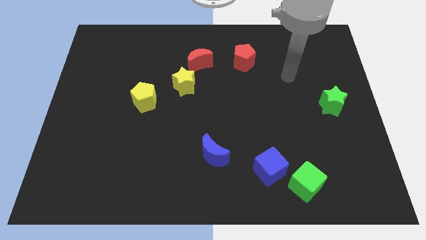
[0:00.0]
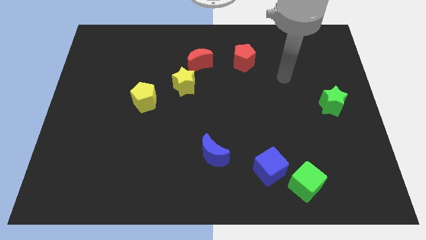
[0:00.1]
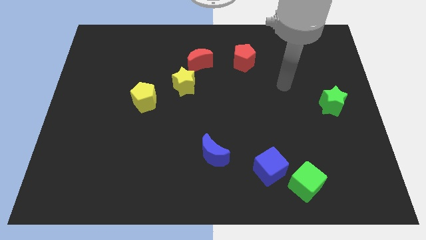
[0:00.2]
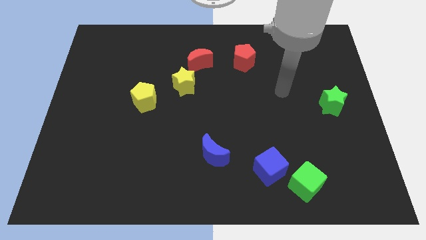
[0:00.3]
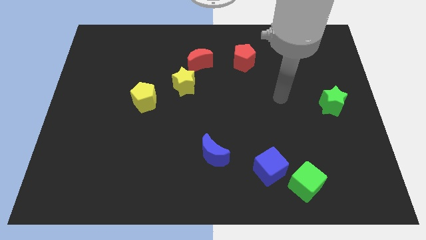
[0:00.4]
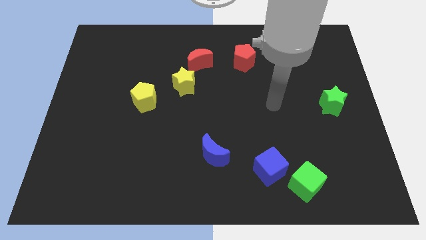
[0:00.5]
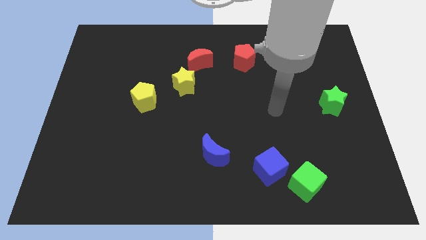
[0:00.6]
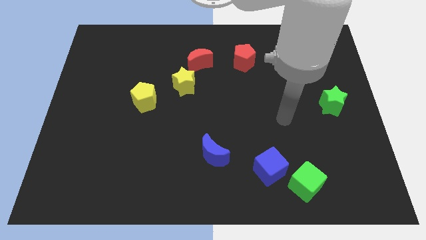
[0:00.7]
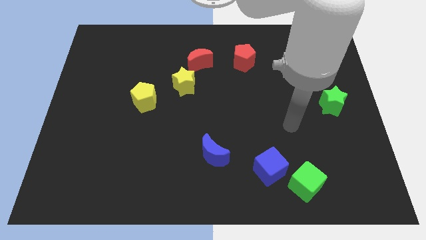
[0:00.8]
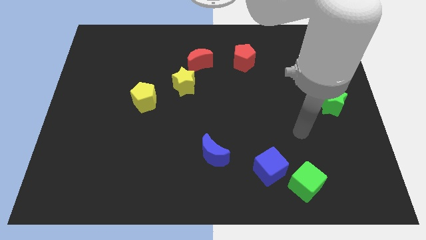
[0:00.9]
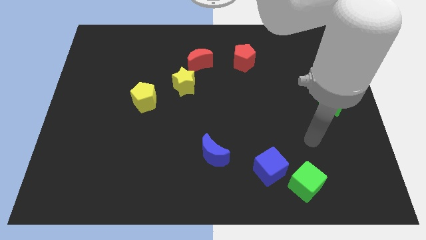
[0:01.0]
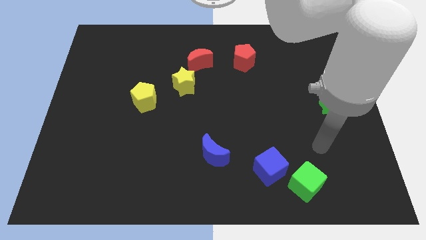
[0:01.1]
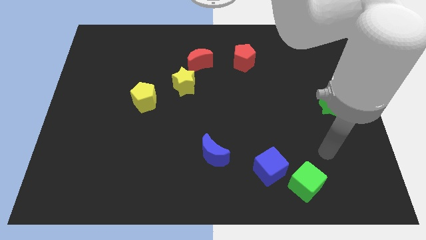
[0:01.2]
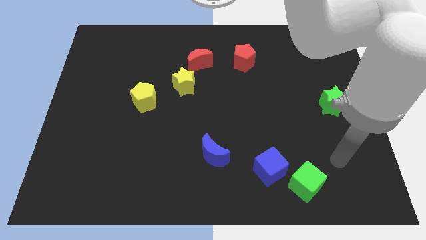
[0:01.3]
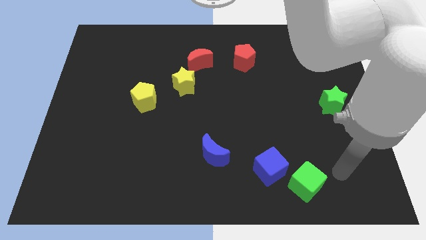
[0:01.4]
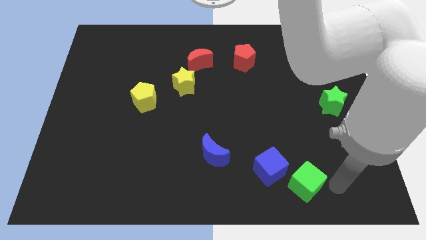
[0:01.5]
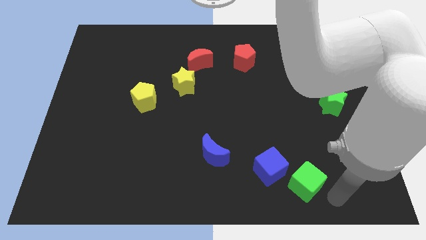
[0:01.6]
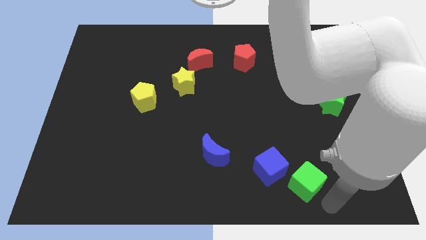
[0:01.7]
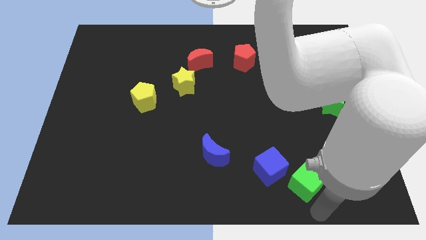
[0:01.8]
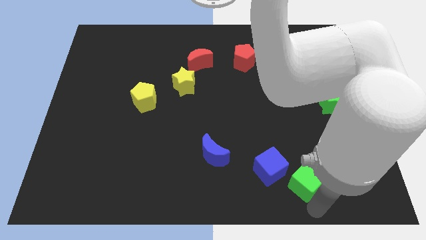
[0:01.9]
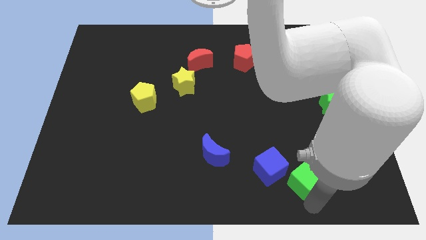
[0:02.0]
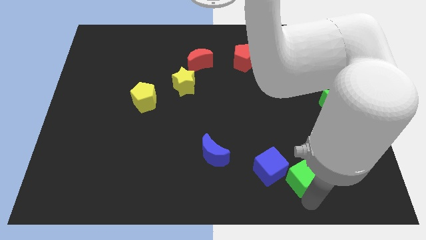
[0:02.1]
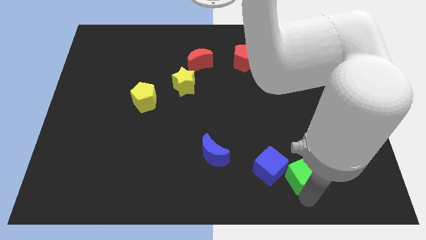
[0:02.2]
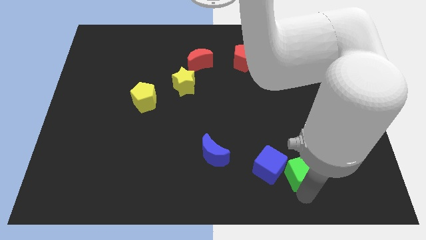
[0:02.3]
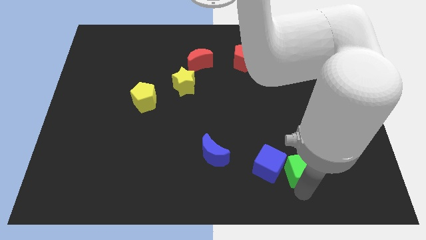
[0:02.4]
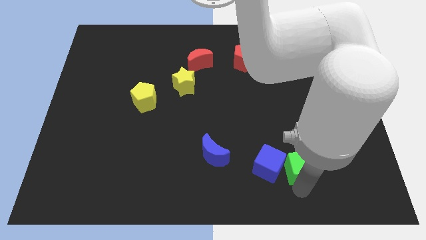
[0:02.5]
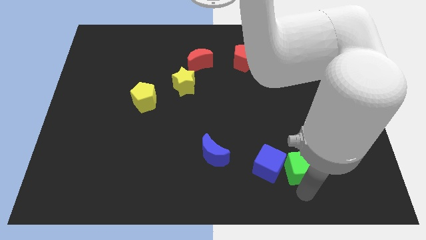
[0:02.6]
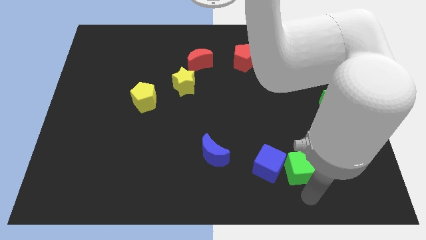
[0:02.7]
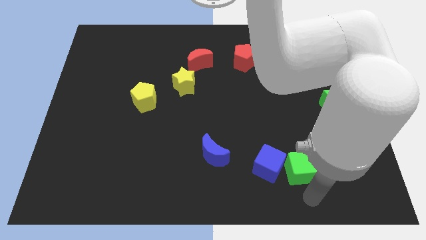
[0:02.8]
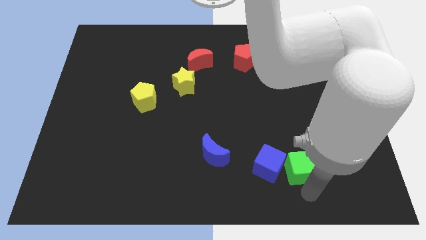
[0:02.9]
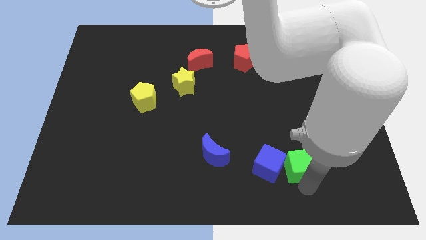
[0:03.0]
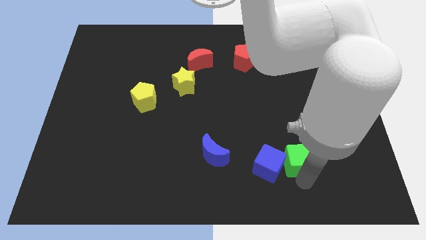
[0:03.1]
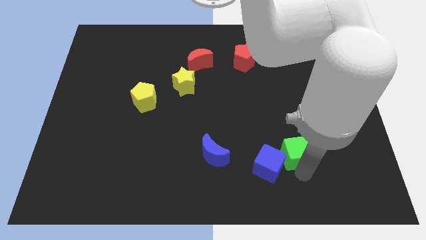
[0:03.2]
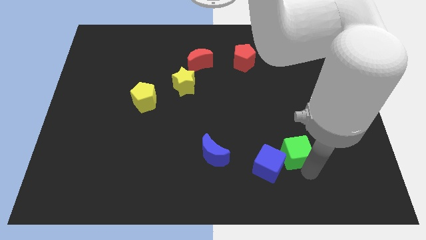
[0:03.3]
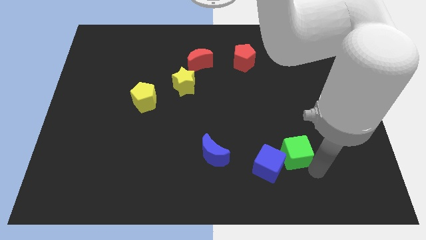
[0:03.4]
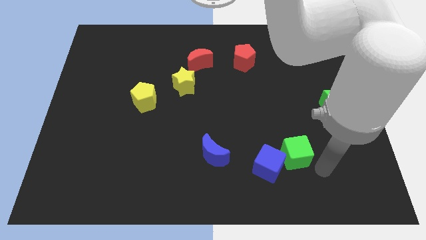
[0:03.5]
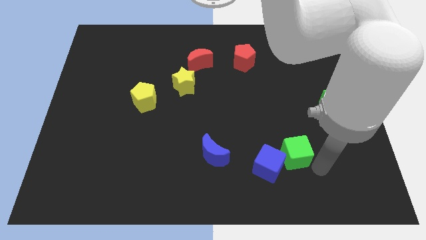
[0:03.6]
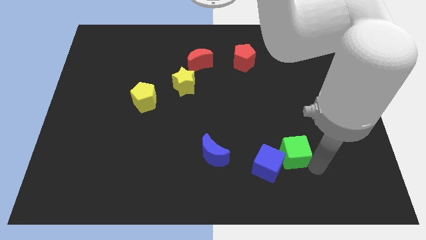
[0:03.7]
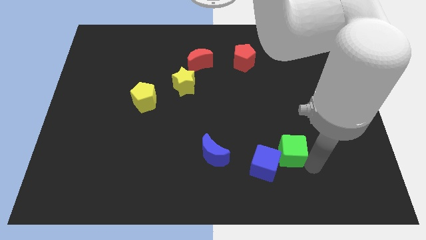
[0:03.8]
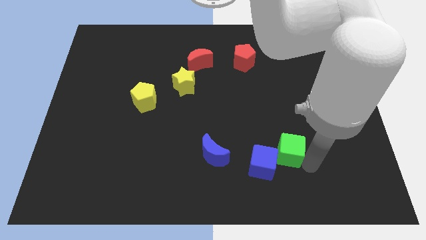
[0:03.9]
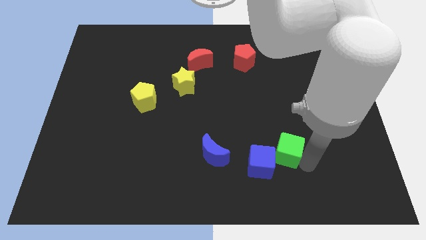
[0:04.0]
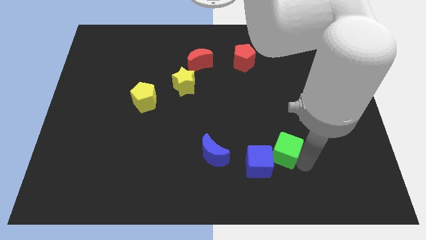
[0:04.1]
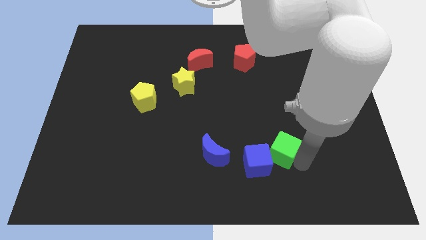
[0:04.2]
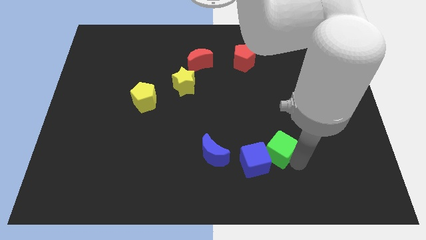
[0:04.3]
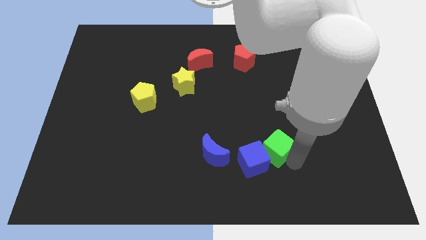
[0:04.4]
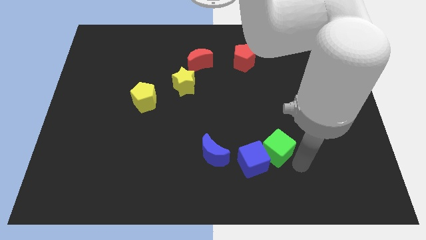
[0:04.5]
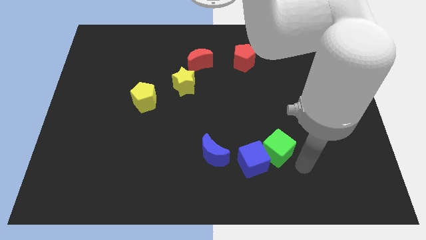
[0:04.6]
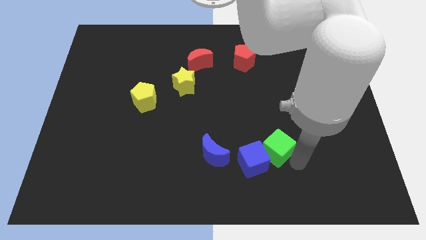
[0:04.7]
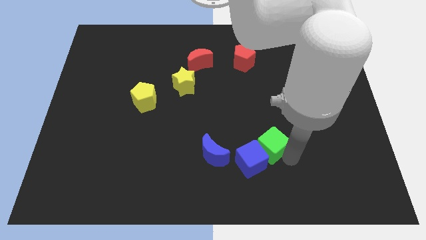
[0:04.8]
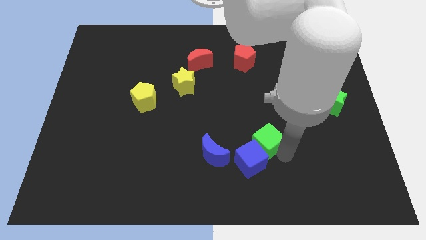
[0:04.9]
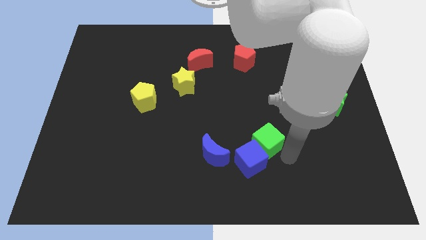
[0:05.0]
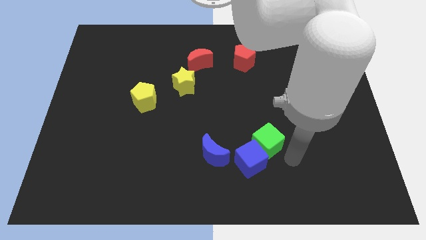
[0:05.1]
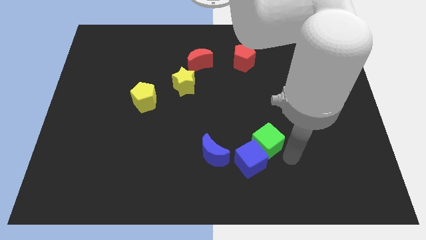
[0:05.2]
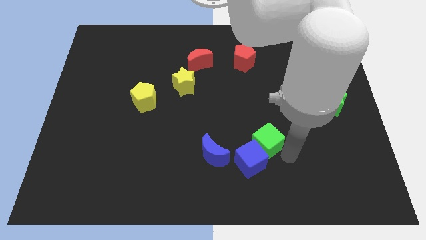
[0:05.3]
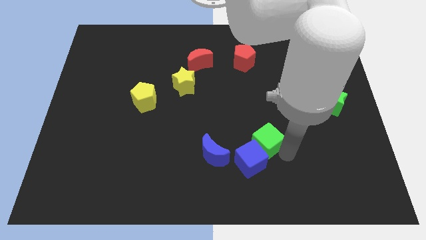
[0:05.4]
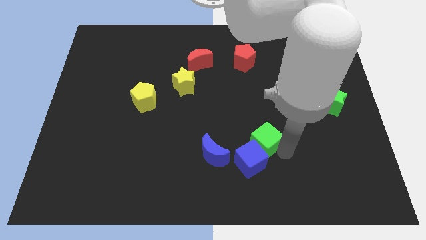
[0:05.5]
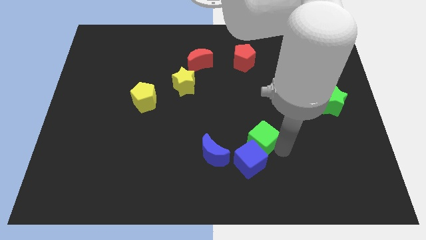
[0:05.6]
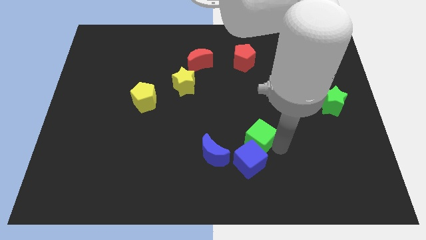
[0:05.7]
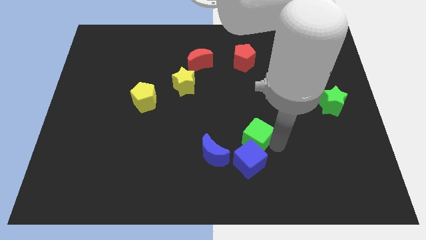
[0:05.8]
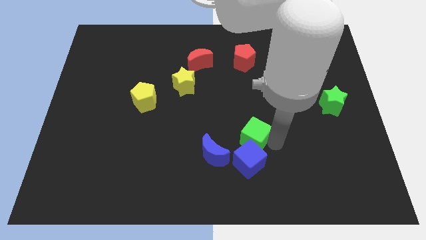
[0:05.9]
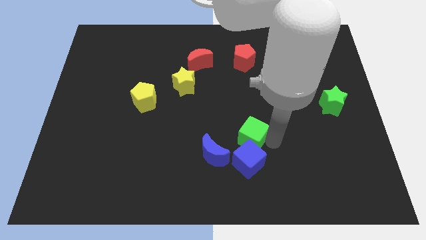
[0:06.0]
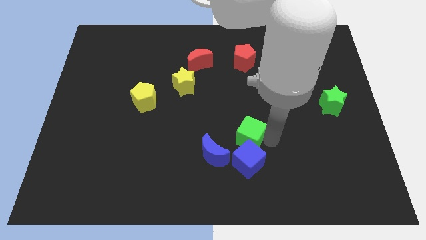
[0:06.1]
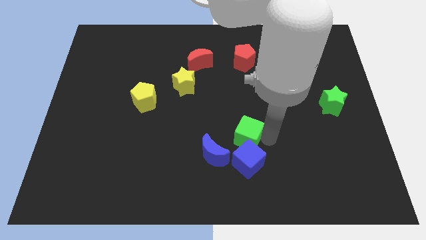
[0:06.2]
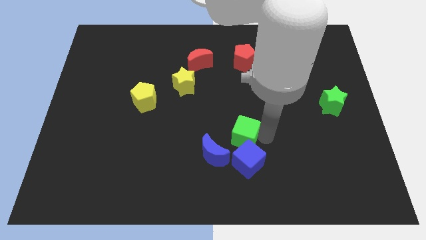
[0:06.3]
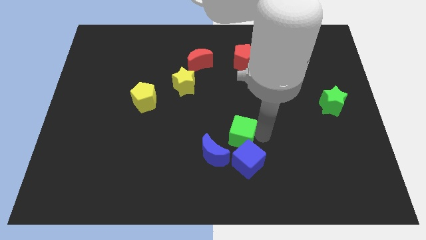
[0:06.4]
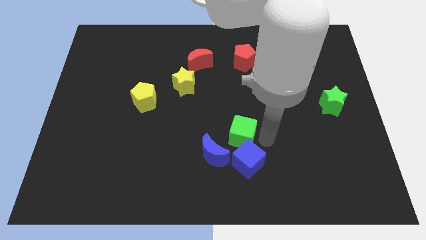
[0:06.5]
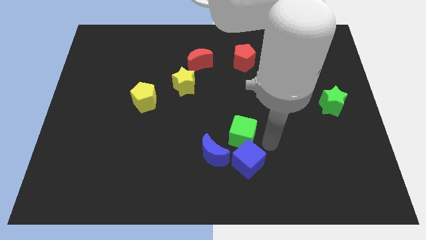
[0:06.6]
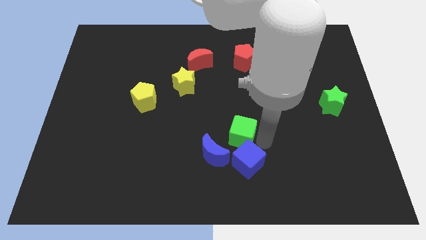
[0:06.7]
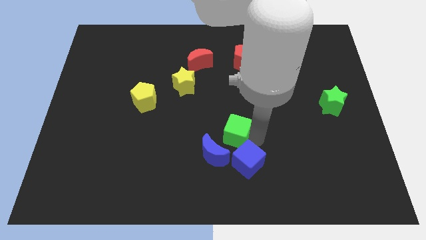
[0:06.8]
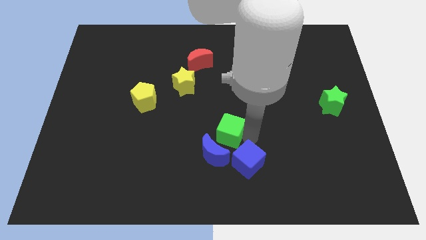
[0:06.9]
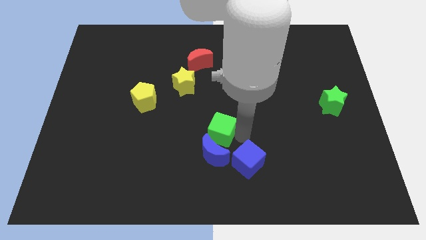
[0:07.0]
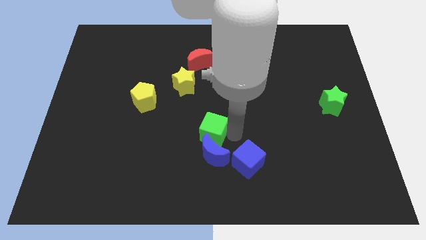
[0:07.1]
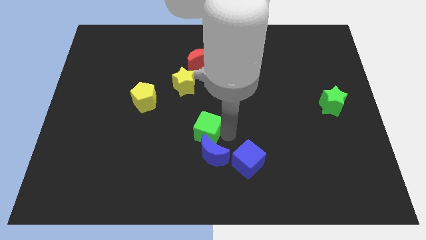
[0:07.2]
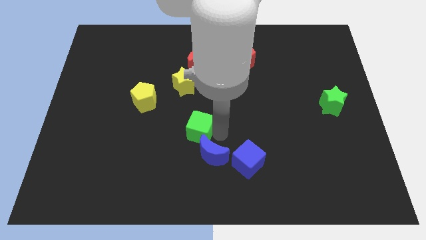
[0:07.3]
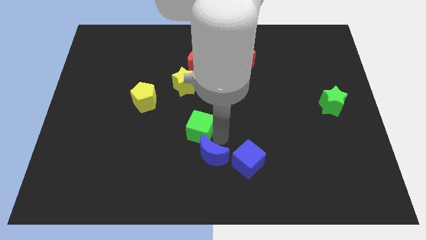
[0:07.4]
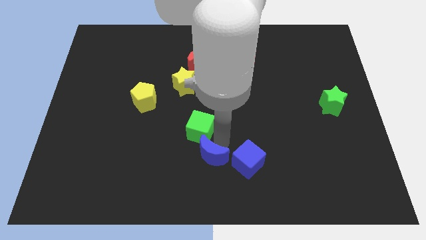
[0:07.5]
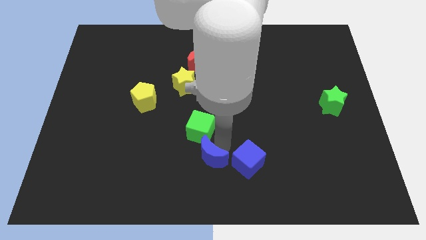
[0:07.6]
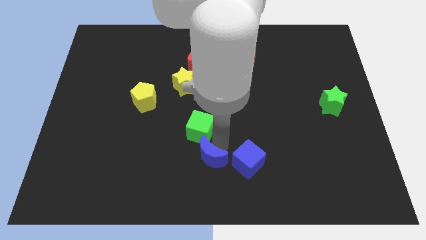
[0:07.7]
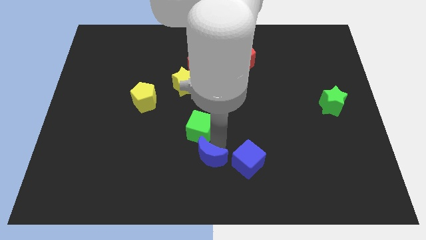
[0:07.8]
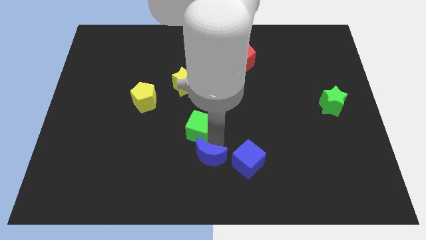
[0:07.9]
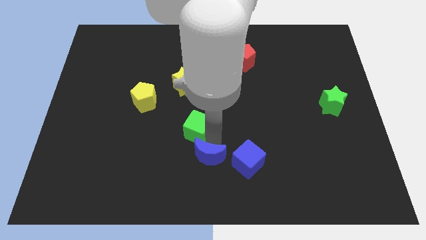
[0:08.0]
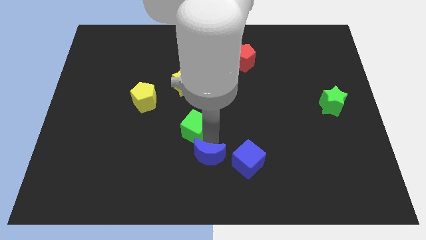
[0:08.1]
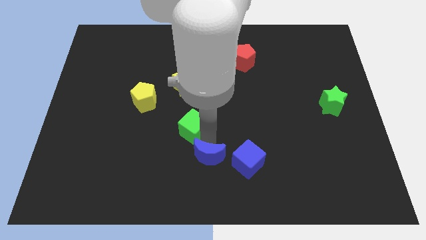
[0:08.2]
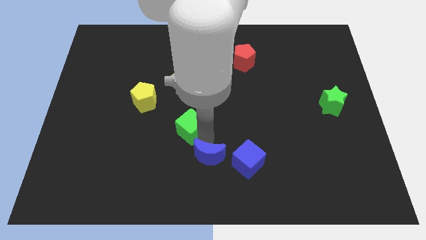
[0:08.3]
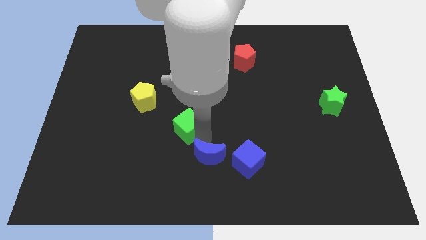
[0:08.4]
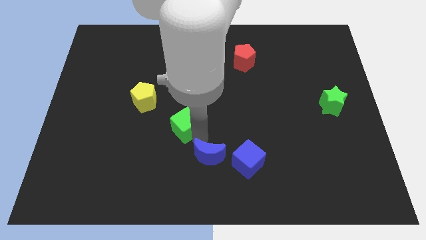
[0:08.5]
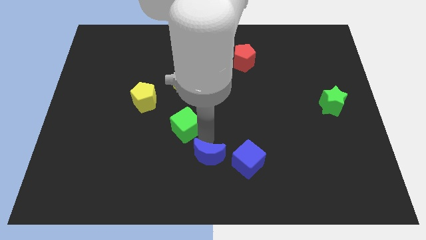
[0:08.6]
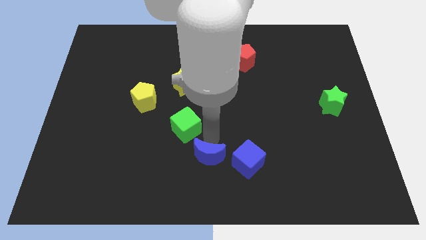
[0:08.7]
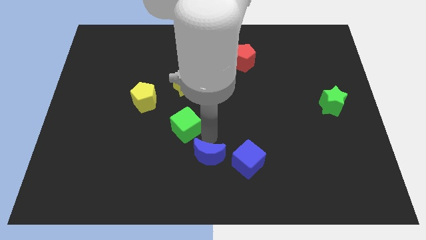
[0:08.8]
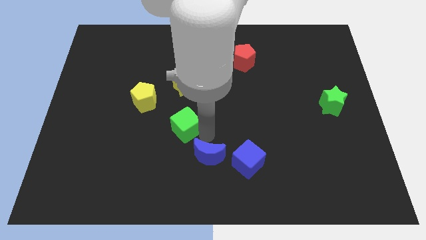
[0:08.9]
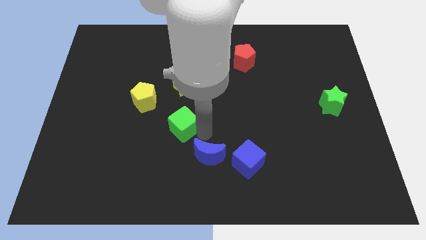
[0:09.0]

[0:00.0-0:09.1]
move the green cube to the bottom right of the yellow pentagon
